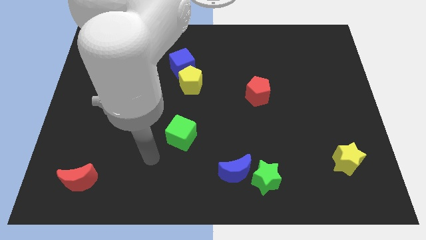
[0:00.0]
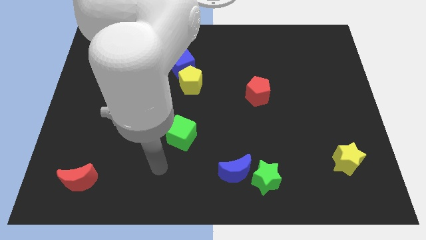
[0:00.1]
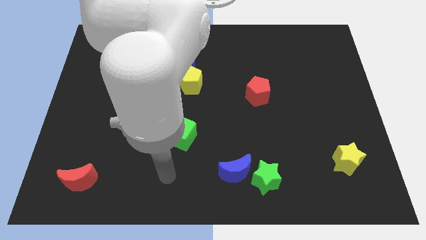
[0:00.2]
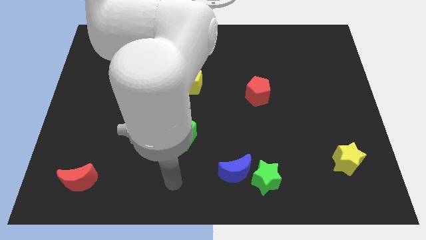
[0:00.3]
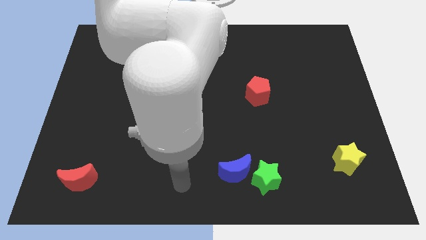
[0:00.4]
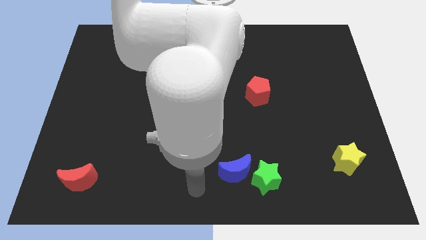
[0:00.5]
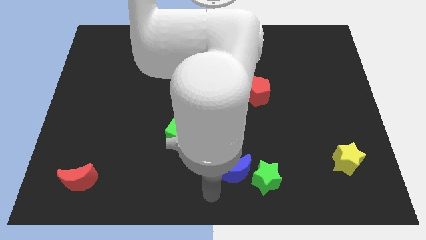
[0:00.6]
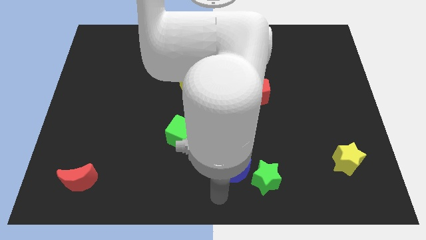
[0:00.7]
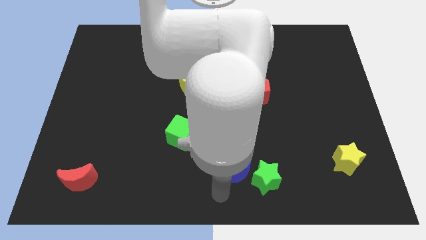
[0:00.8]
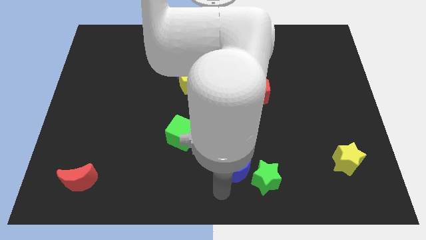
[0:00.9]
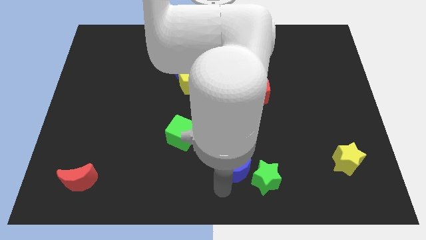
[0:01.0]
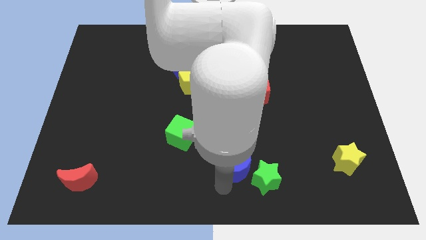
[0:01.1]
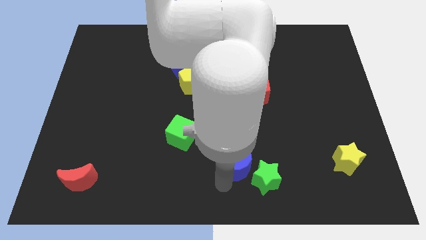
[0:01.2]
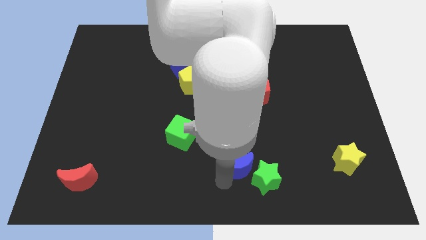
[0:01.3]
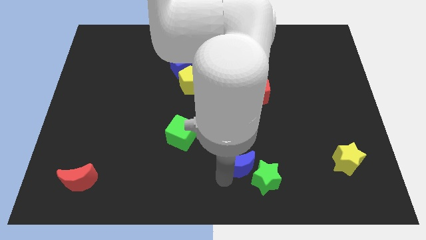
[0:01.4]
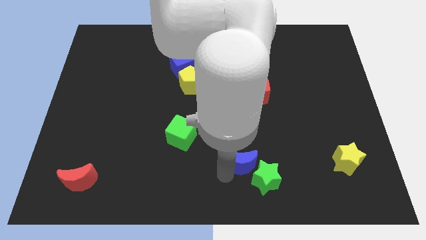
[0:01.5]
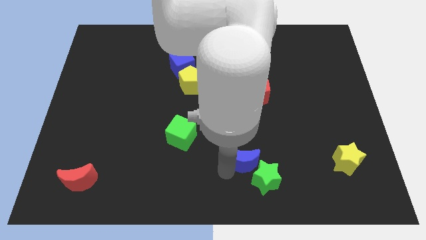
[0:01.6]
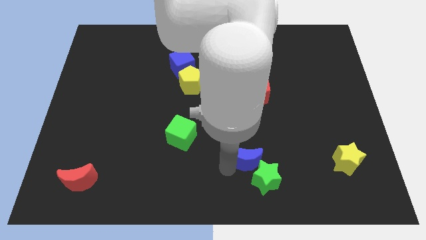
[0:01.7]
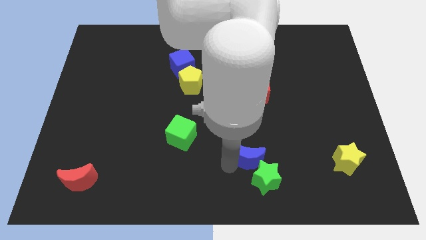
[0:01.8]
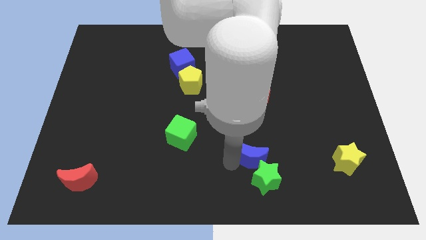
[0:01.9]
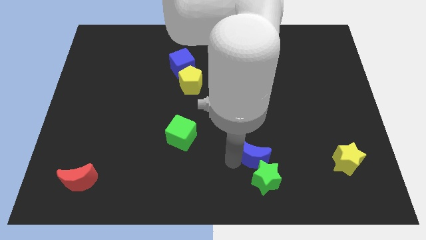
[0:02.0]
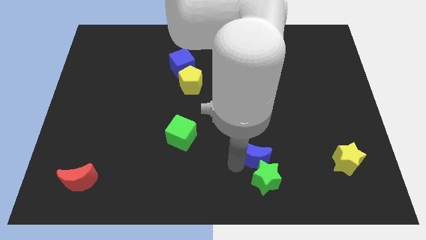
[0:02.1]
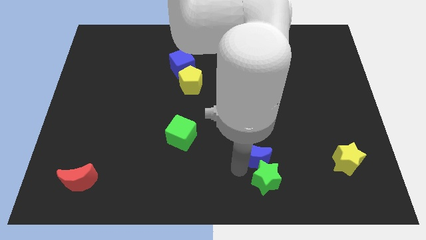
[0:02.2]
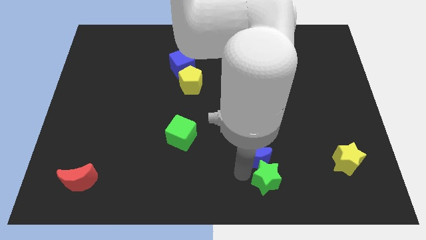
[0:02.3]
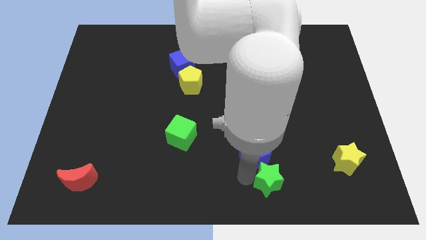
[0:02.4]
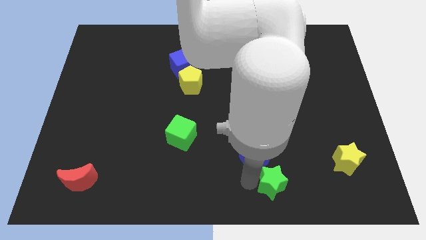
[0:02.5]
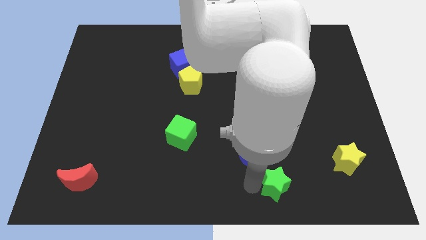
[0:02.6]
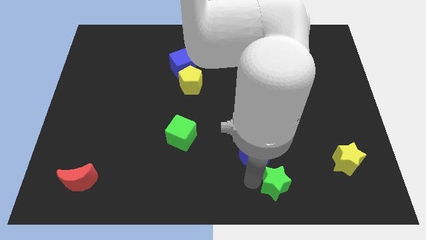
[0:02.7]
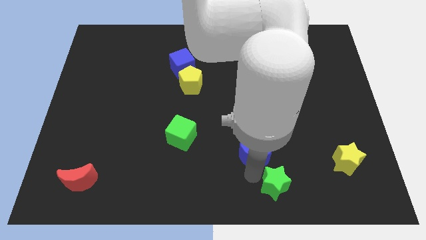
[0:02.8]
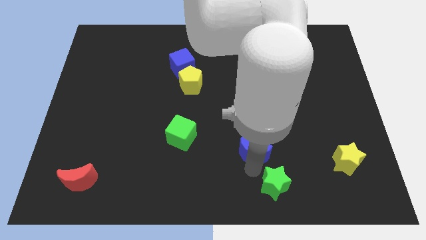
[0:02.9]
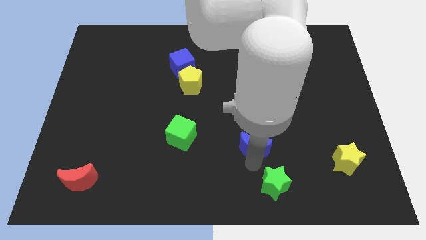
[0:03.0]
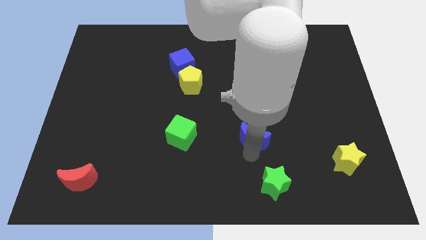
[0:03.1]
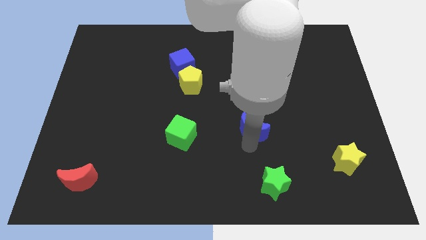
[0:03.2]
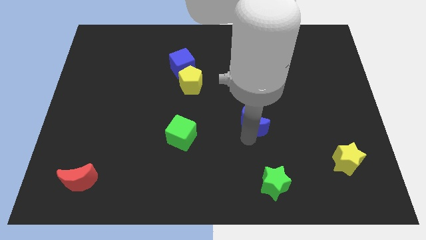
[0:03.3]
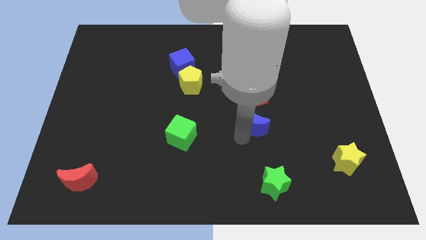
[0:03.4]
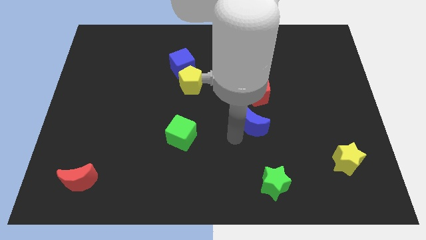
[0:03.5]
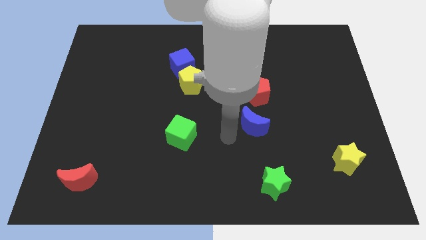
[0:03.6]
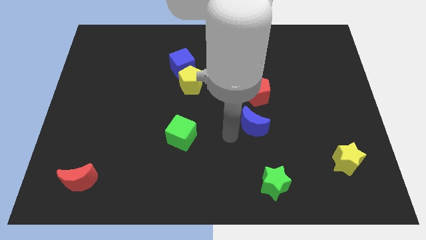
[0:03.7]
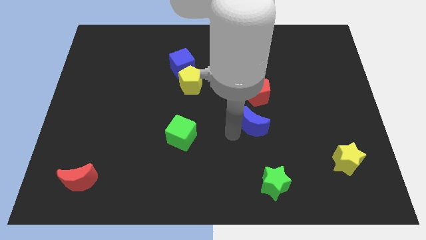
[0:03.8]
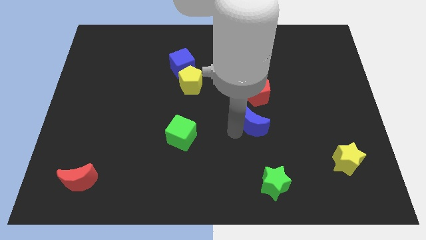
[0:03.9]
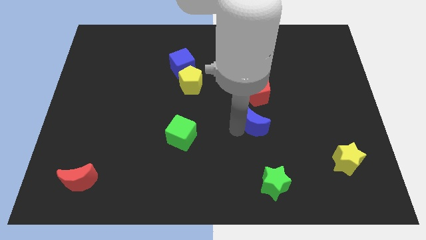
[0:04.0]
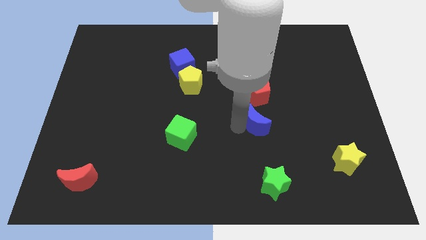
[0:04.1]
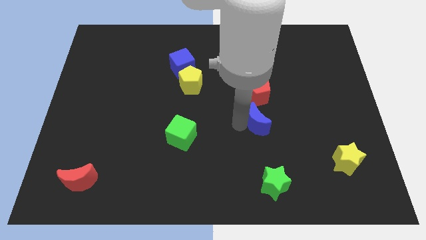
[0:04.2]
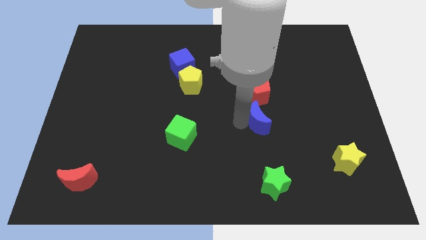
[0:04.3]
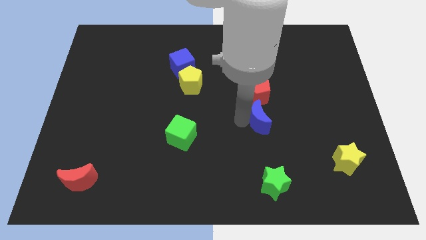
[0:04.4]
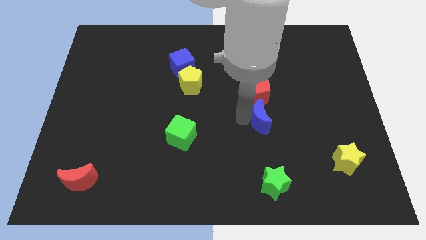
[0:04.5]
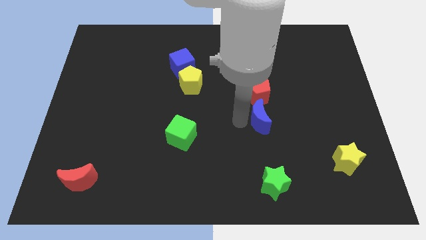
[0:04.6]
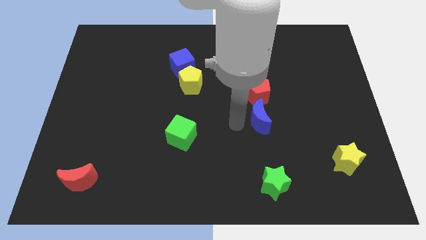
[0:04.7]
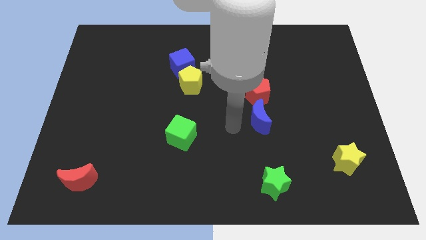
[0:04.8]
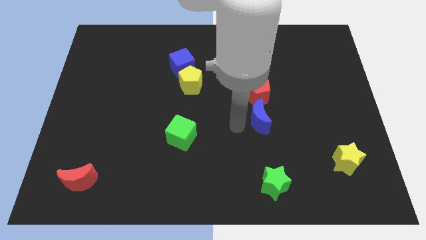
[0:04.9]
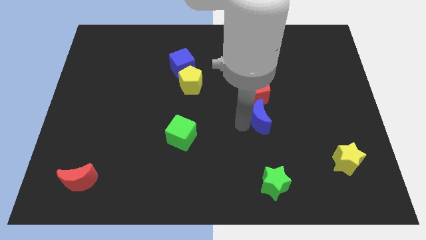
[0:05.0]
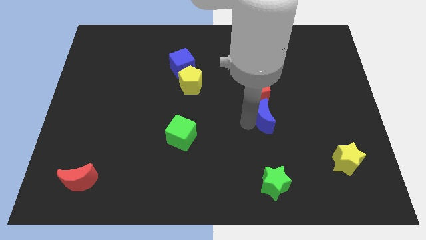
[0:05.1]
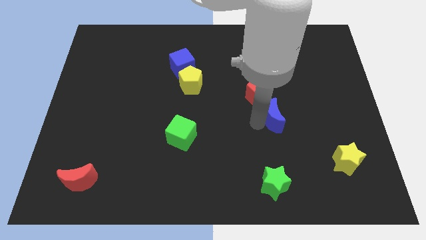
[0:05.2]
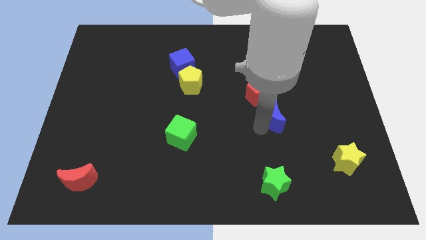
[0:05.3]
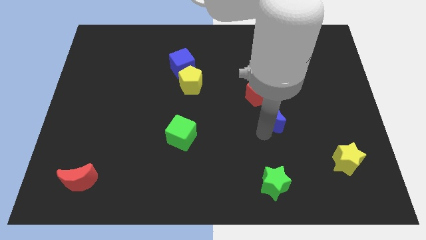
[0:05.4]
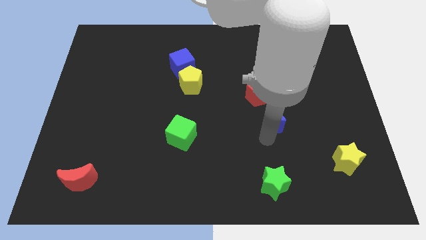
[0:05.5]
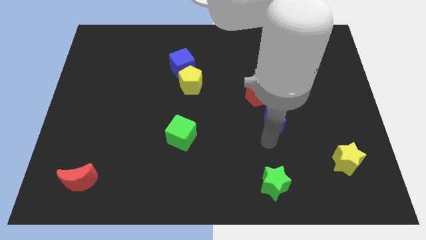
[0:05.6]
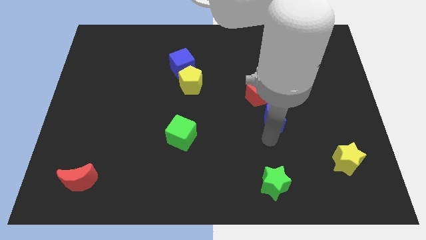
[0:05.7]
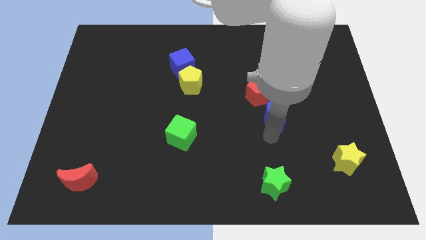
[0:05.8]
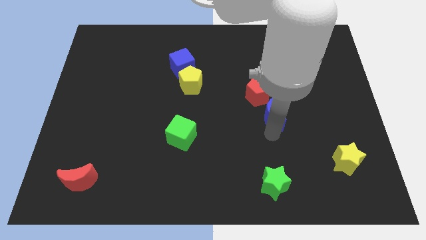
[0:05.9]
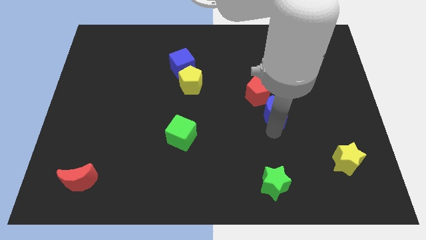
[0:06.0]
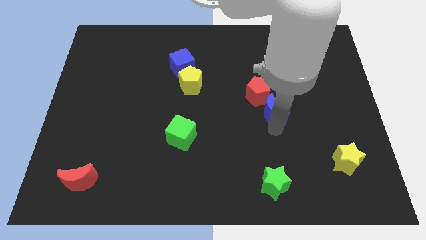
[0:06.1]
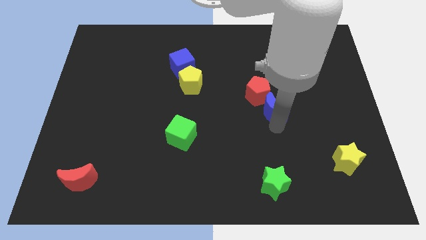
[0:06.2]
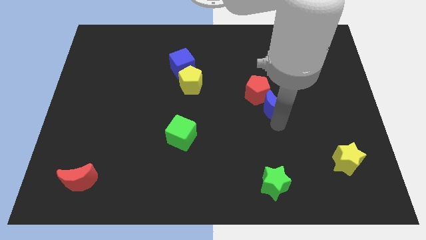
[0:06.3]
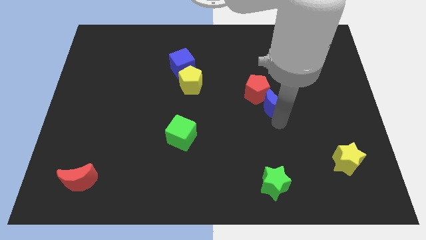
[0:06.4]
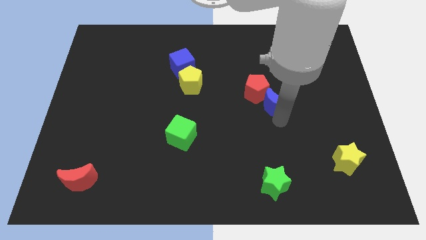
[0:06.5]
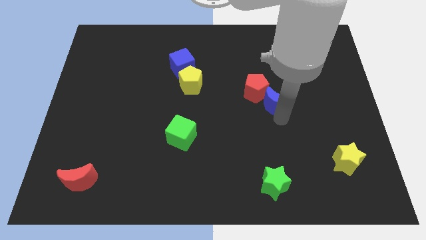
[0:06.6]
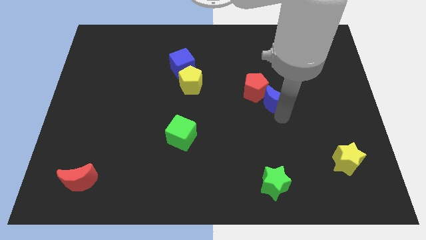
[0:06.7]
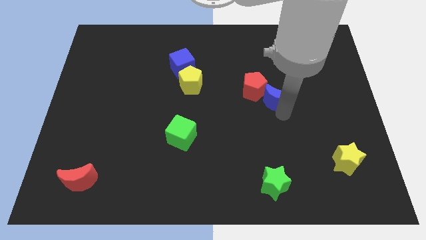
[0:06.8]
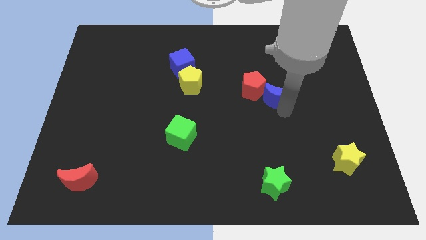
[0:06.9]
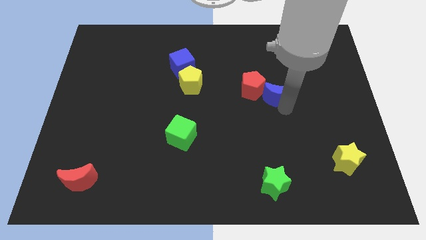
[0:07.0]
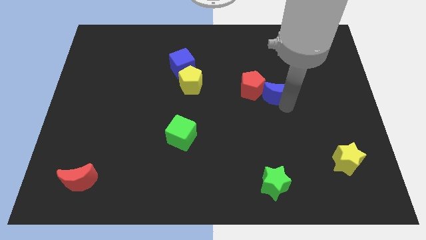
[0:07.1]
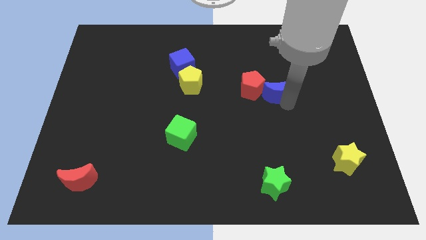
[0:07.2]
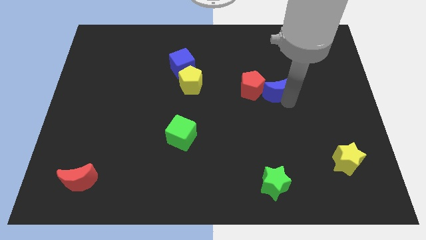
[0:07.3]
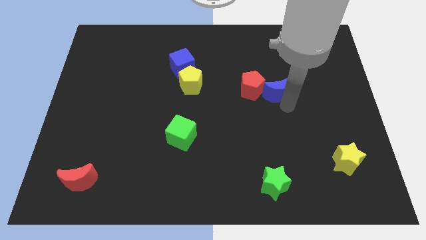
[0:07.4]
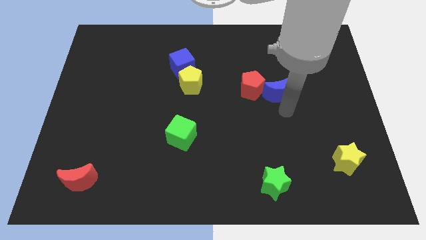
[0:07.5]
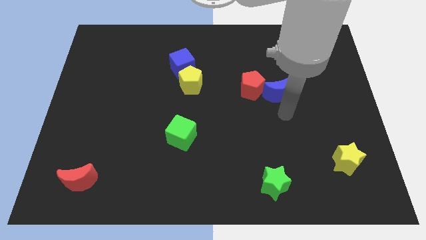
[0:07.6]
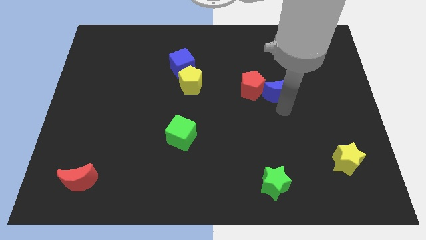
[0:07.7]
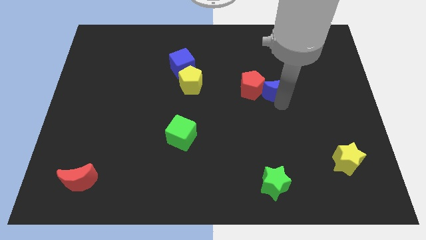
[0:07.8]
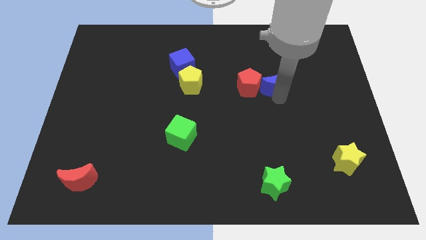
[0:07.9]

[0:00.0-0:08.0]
put the blue moon diagonally up and to the right of the red pentagon
